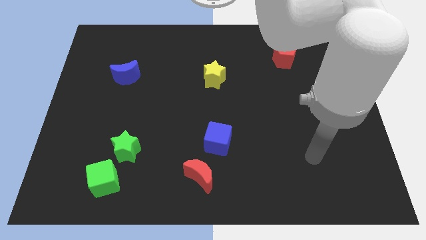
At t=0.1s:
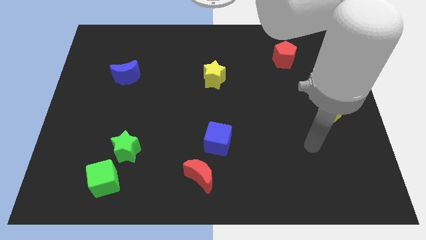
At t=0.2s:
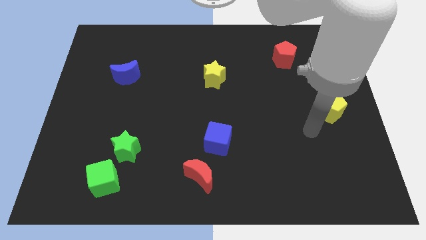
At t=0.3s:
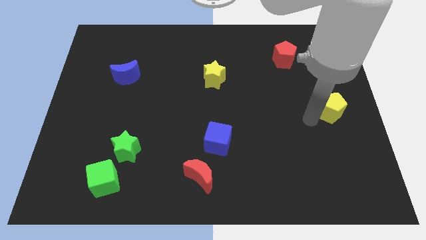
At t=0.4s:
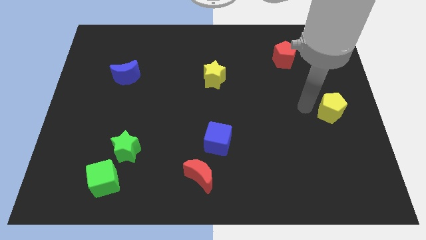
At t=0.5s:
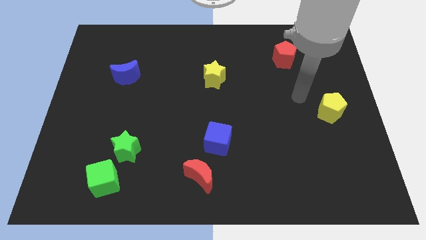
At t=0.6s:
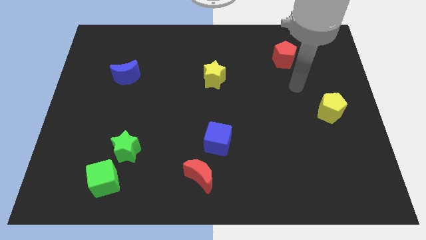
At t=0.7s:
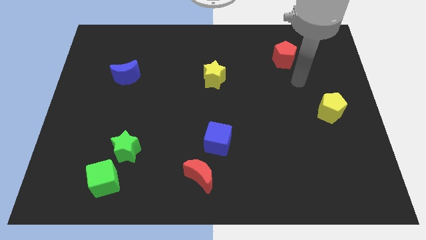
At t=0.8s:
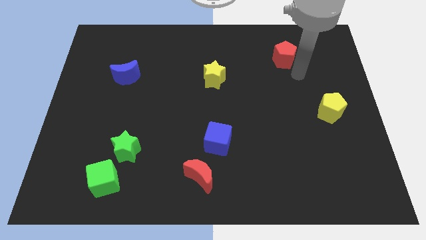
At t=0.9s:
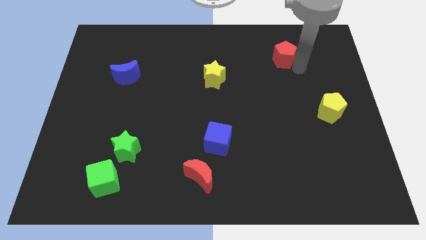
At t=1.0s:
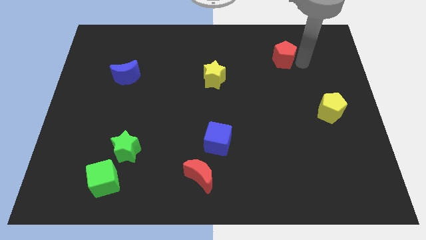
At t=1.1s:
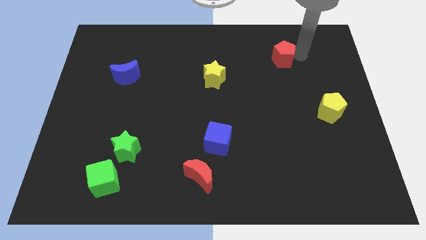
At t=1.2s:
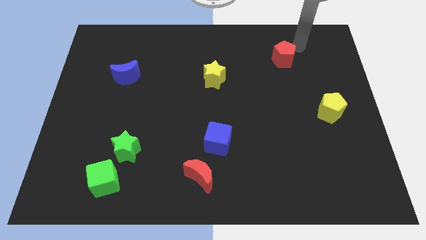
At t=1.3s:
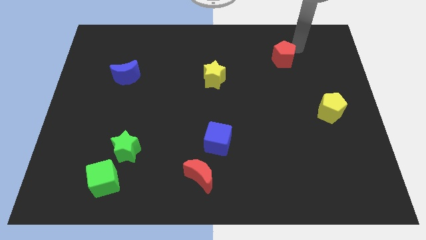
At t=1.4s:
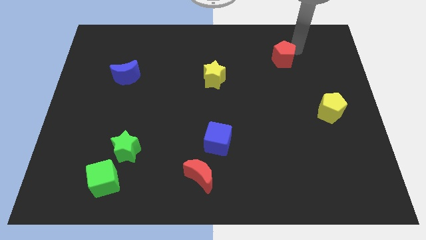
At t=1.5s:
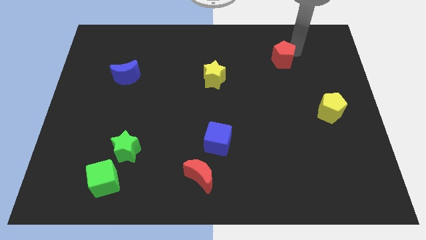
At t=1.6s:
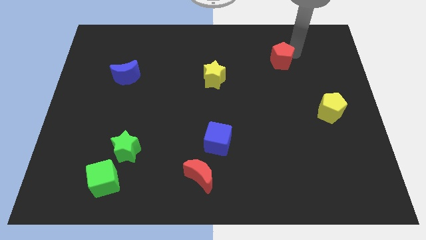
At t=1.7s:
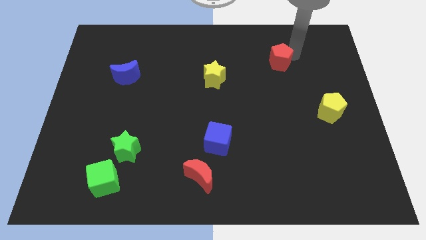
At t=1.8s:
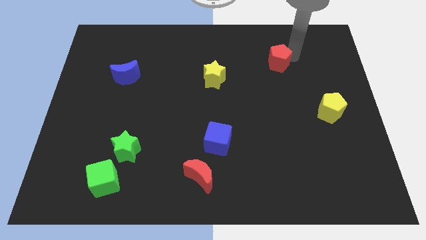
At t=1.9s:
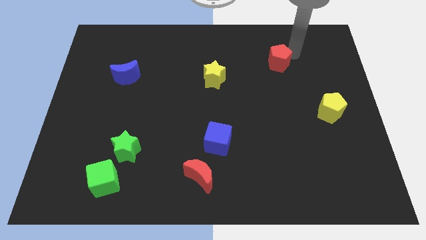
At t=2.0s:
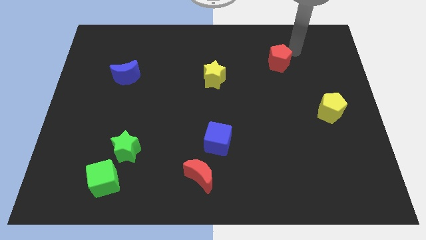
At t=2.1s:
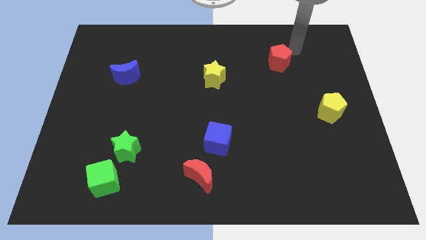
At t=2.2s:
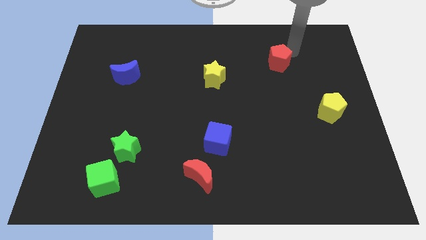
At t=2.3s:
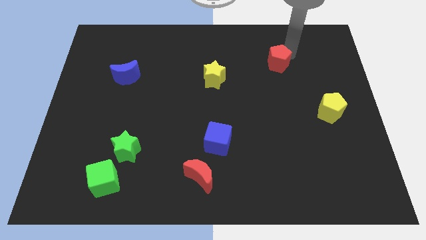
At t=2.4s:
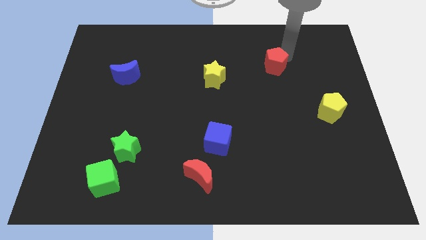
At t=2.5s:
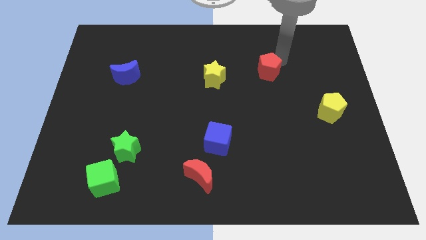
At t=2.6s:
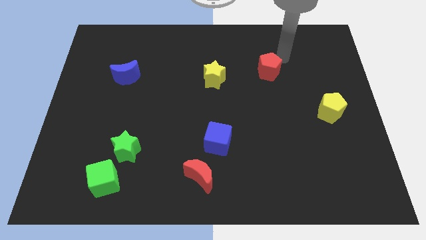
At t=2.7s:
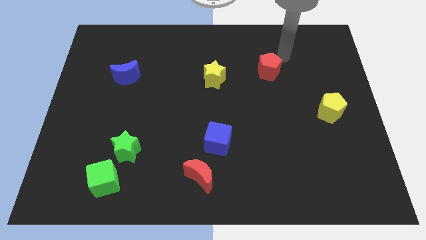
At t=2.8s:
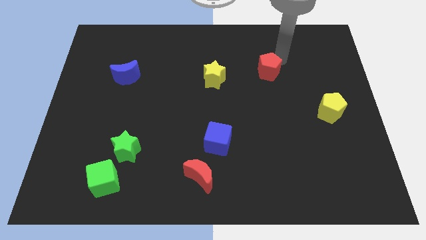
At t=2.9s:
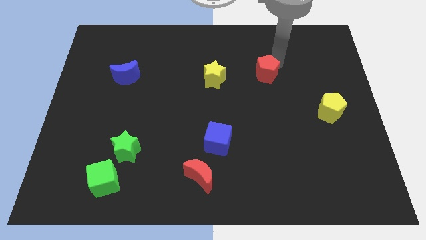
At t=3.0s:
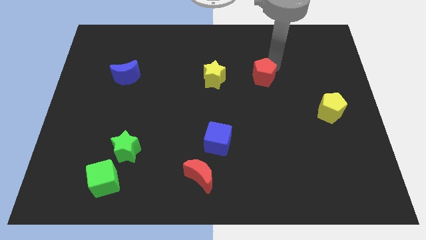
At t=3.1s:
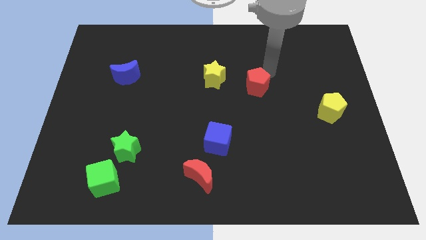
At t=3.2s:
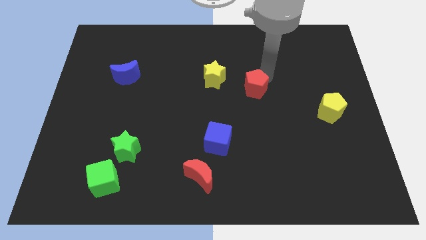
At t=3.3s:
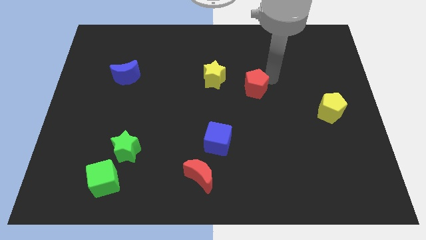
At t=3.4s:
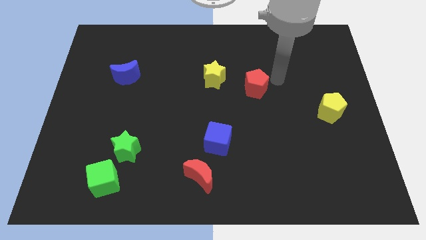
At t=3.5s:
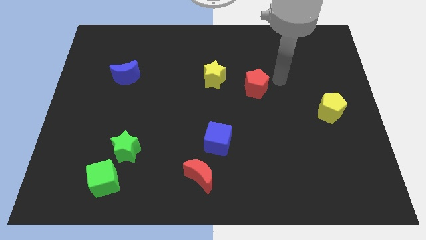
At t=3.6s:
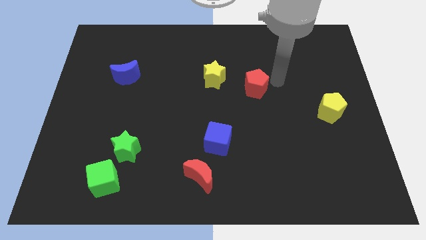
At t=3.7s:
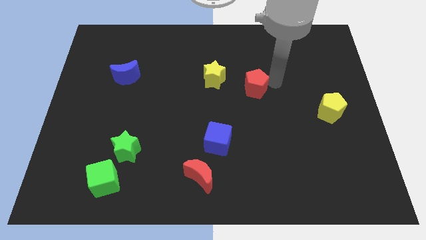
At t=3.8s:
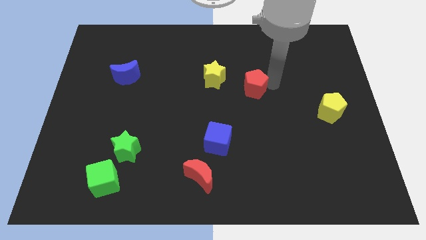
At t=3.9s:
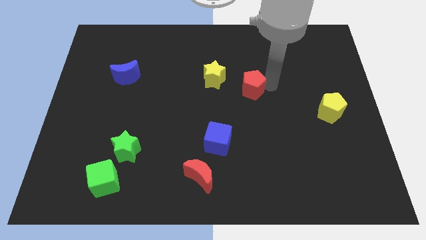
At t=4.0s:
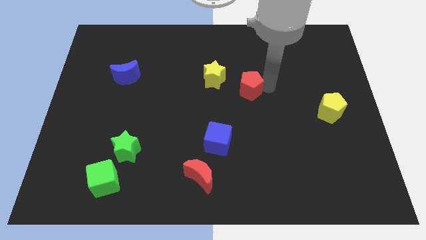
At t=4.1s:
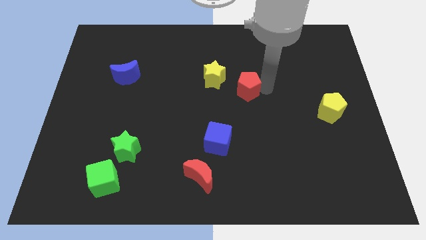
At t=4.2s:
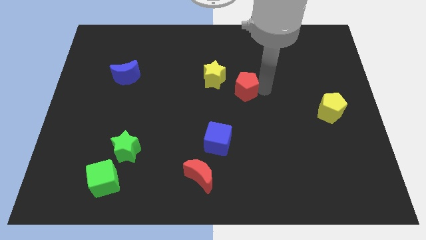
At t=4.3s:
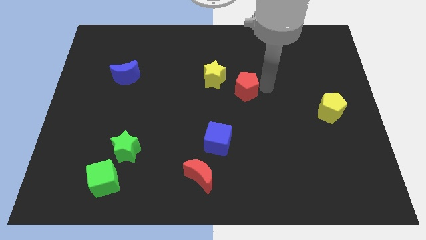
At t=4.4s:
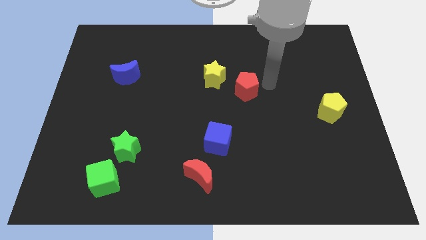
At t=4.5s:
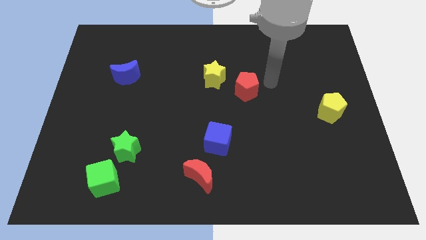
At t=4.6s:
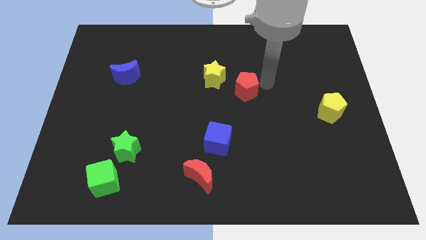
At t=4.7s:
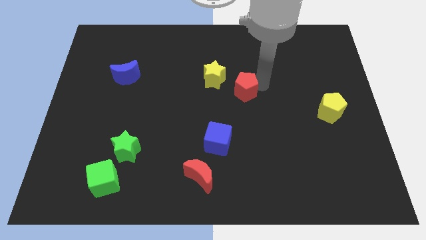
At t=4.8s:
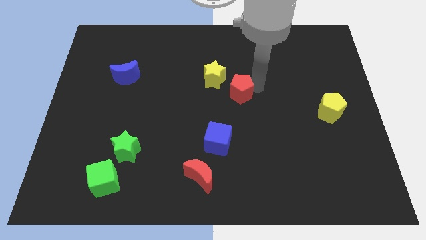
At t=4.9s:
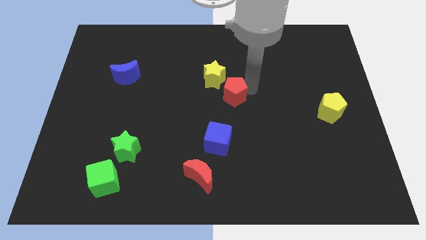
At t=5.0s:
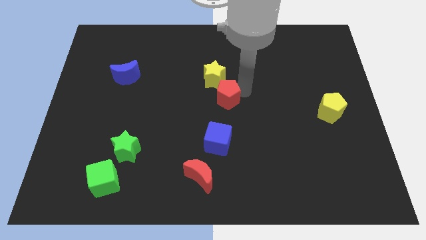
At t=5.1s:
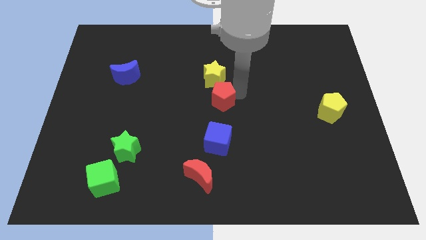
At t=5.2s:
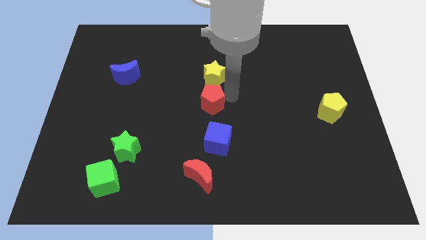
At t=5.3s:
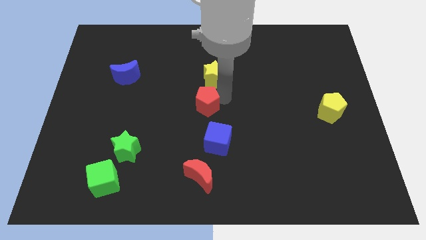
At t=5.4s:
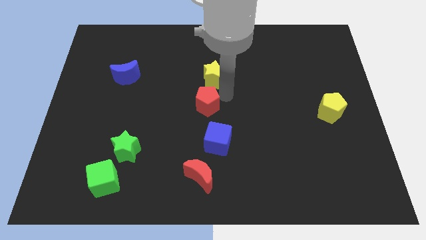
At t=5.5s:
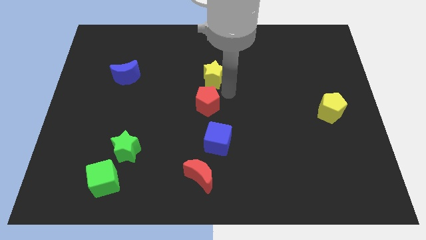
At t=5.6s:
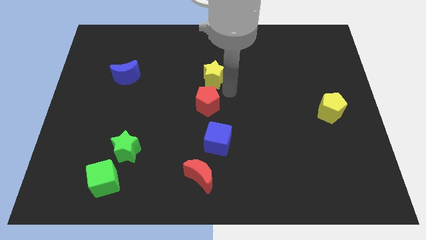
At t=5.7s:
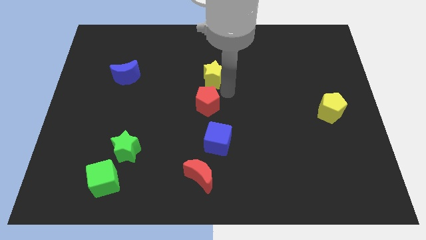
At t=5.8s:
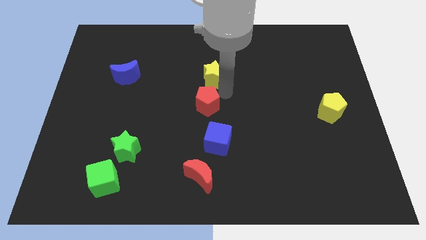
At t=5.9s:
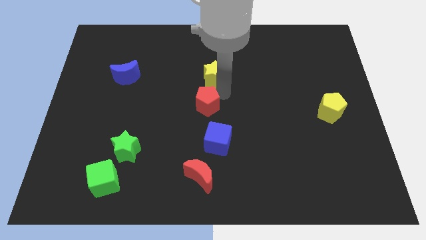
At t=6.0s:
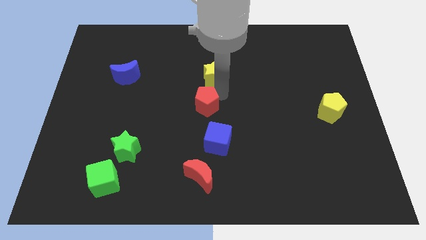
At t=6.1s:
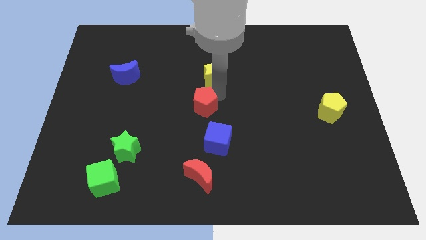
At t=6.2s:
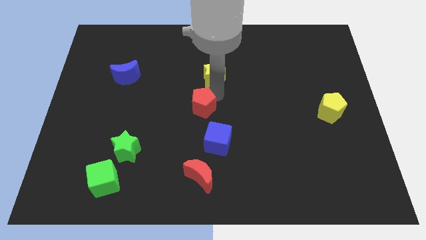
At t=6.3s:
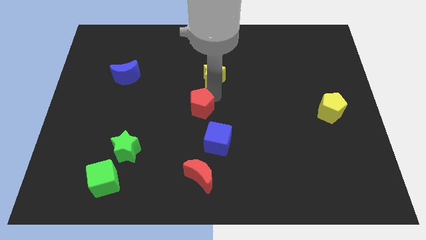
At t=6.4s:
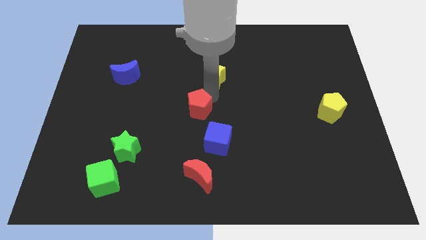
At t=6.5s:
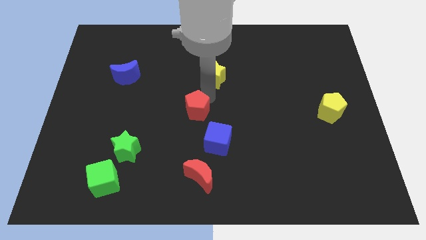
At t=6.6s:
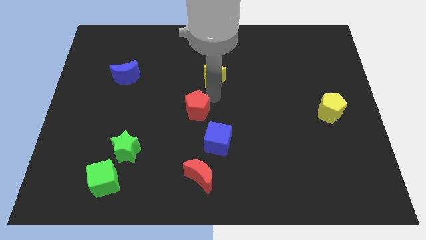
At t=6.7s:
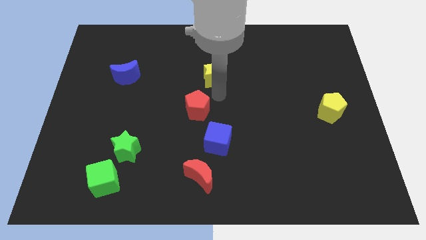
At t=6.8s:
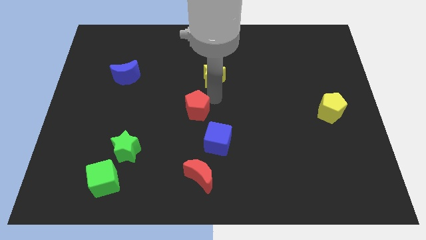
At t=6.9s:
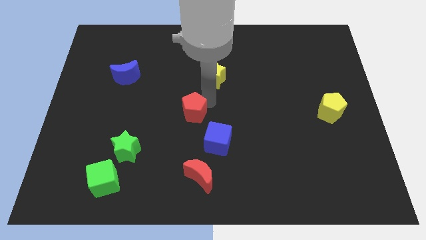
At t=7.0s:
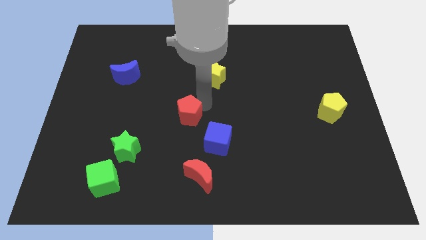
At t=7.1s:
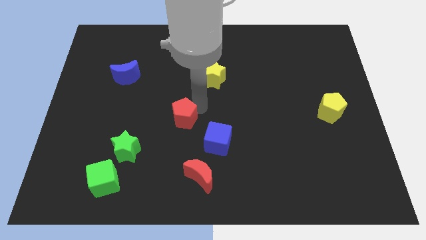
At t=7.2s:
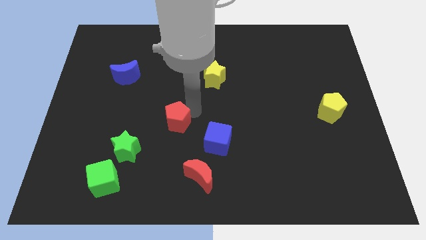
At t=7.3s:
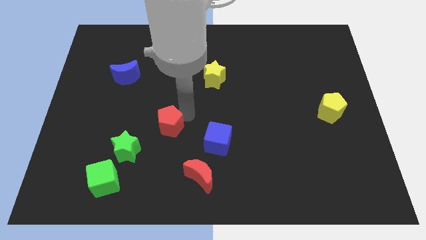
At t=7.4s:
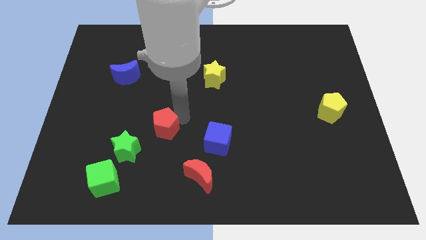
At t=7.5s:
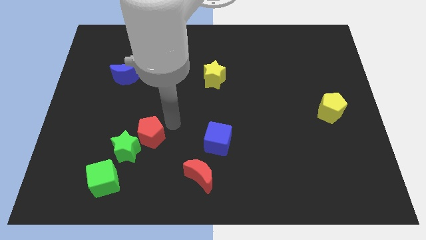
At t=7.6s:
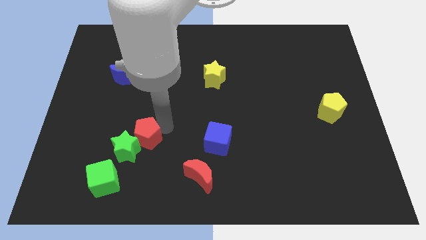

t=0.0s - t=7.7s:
push the red pentagon towards the green star
